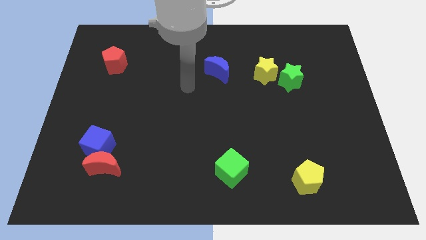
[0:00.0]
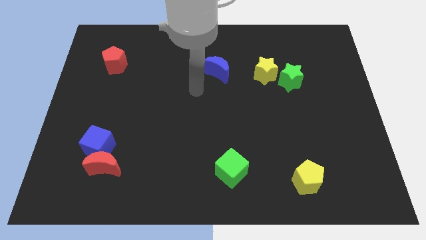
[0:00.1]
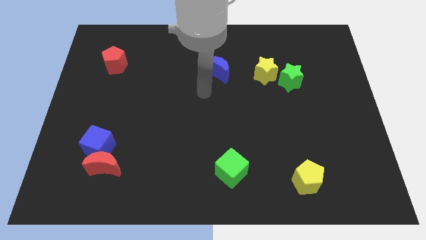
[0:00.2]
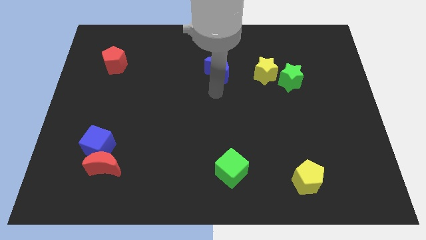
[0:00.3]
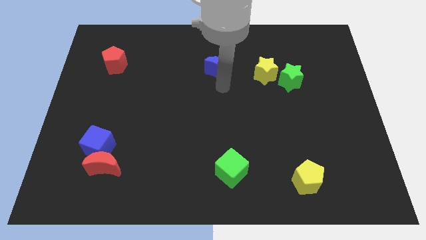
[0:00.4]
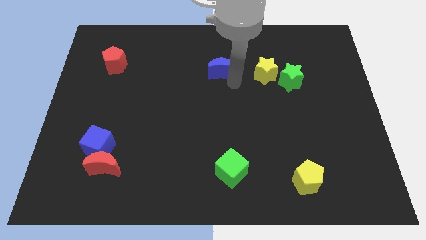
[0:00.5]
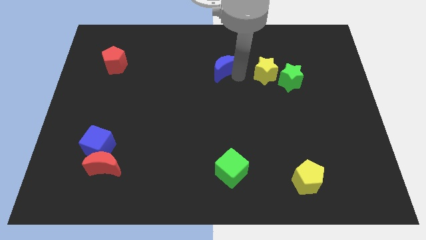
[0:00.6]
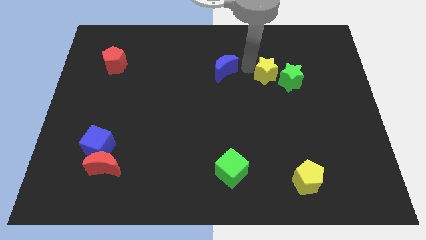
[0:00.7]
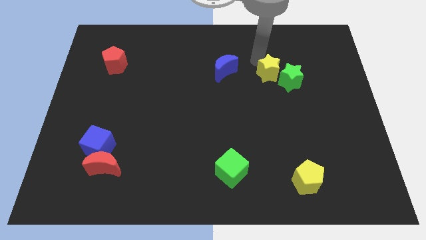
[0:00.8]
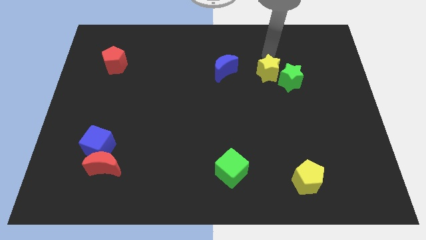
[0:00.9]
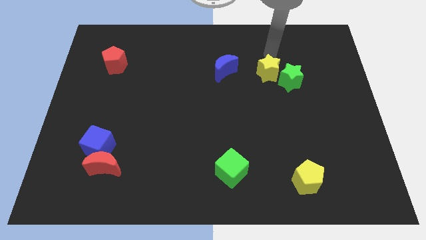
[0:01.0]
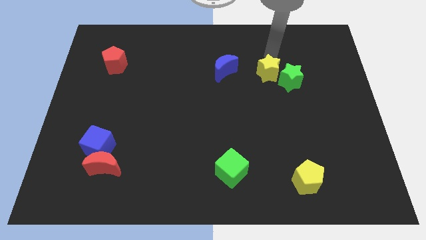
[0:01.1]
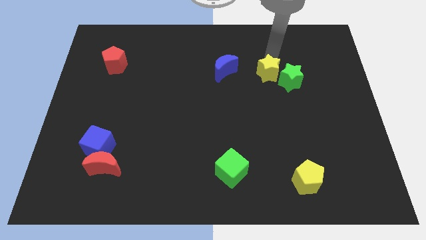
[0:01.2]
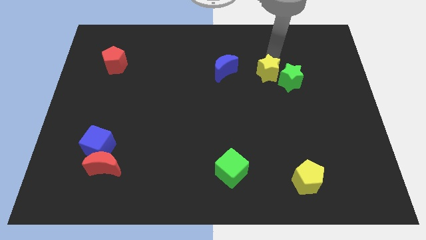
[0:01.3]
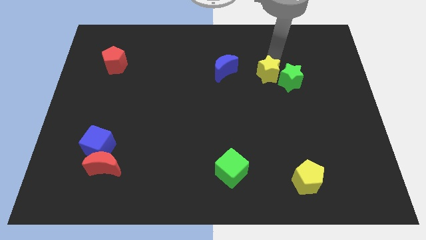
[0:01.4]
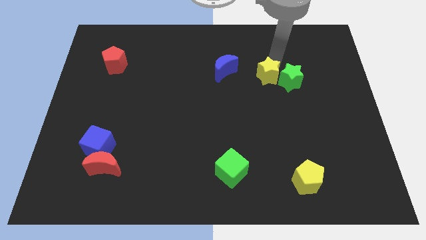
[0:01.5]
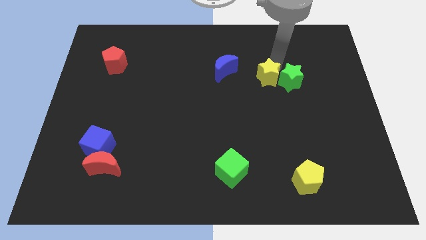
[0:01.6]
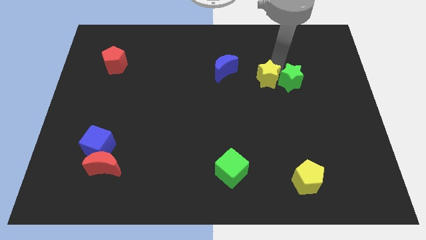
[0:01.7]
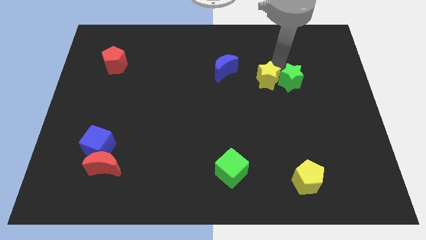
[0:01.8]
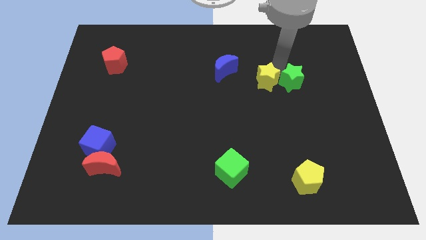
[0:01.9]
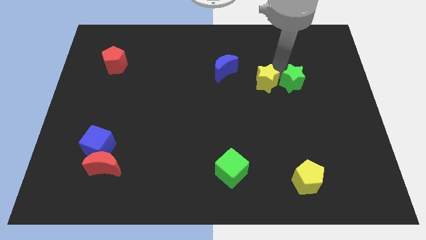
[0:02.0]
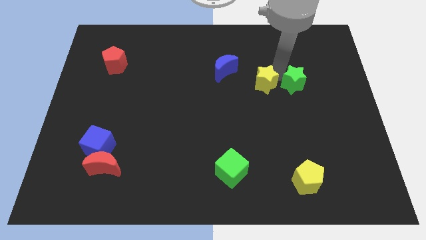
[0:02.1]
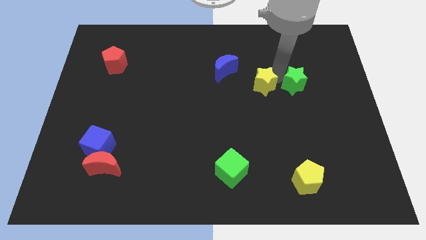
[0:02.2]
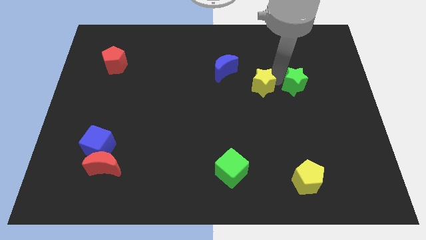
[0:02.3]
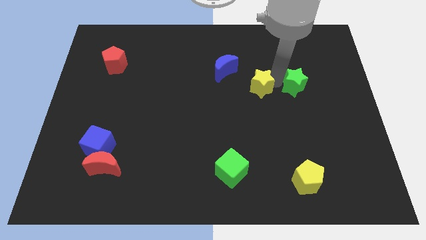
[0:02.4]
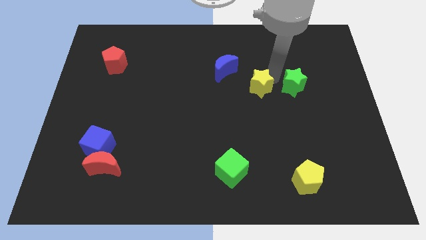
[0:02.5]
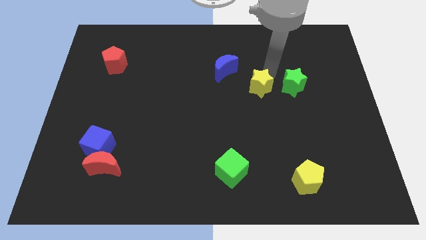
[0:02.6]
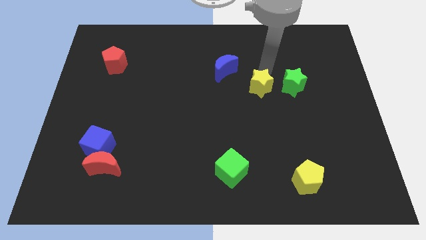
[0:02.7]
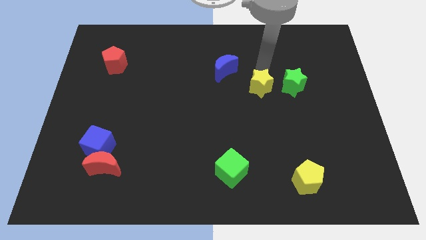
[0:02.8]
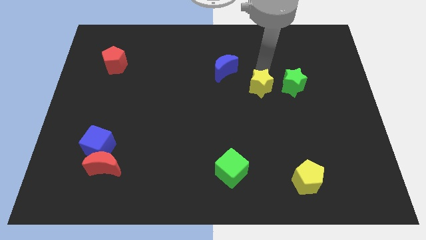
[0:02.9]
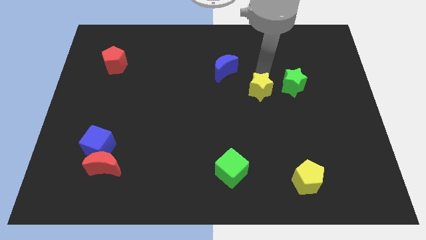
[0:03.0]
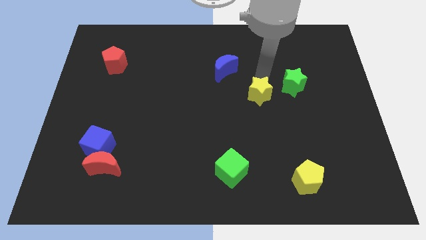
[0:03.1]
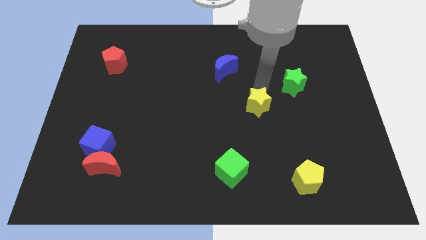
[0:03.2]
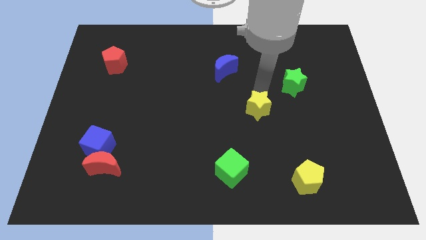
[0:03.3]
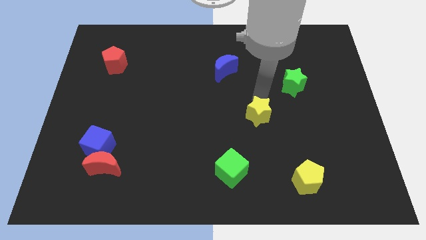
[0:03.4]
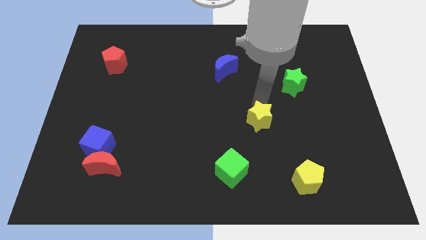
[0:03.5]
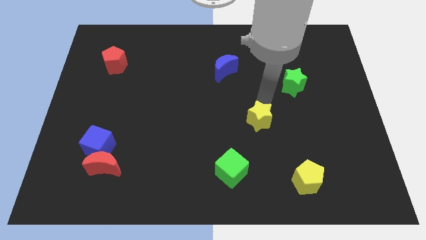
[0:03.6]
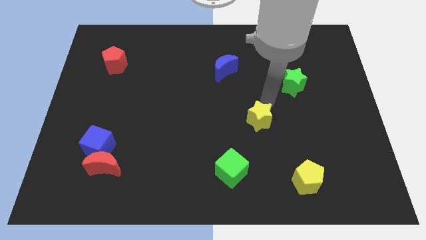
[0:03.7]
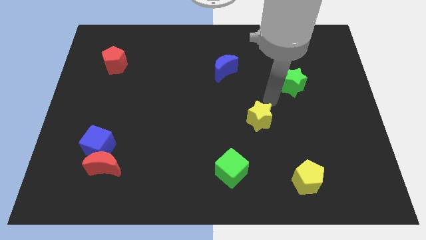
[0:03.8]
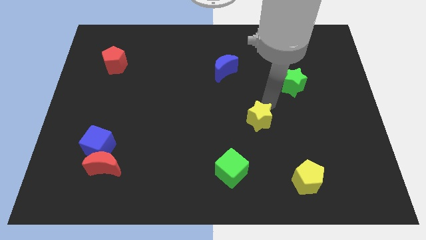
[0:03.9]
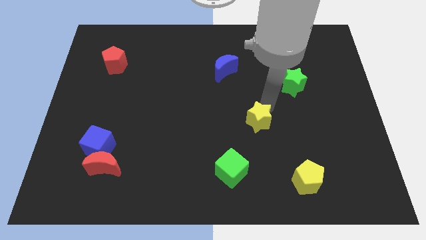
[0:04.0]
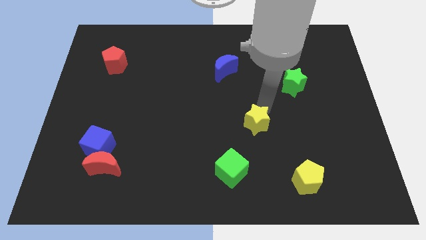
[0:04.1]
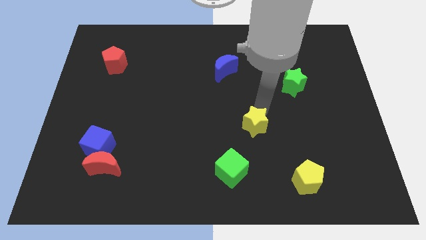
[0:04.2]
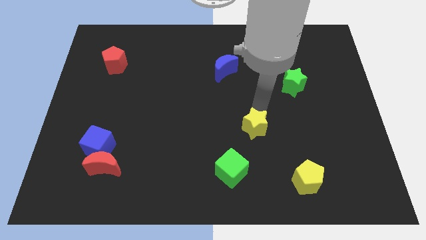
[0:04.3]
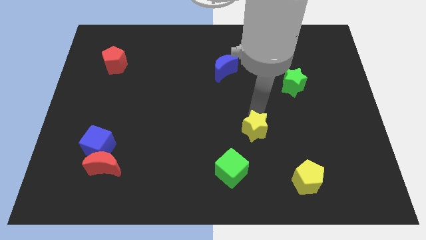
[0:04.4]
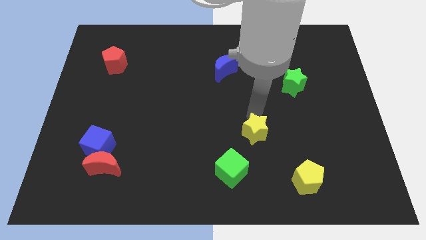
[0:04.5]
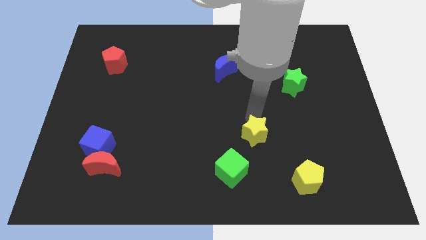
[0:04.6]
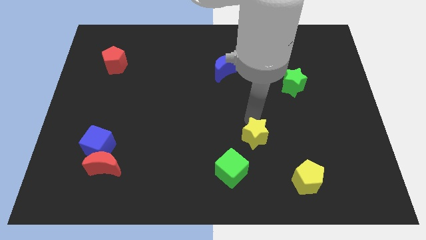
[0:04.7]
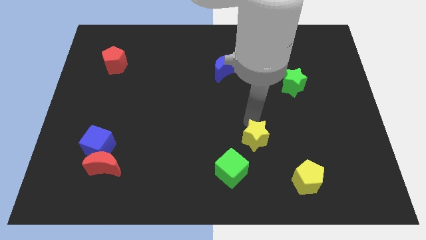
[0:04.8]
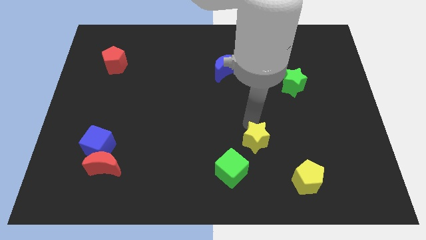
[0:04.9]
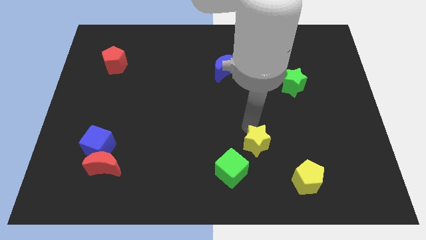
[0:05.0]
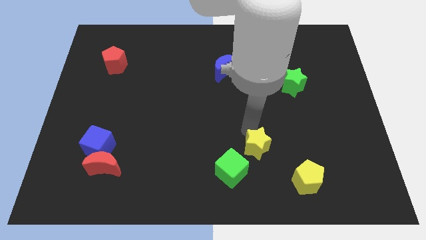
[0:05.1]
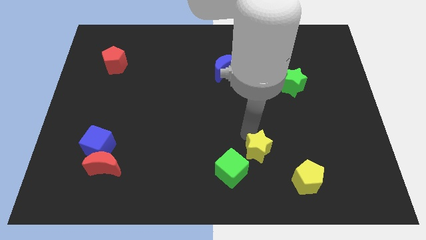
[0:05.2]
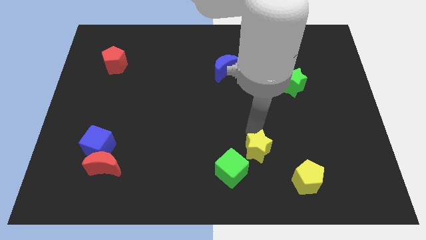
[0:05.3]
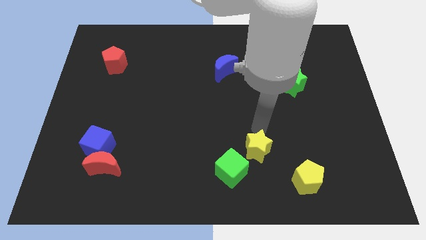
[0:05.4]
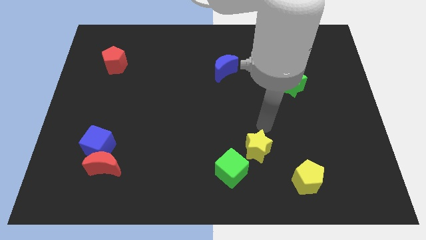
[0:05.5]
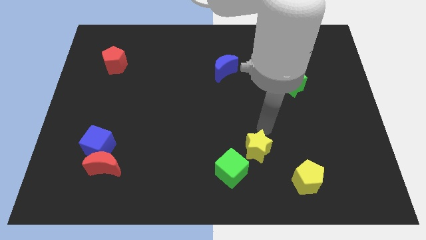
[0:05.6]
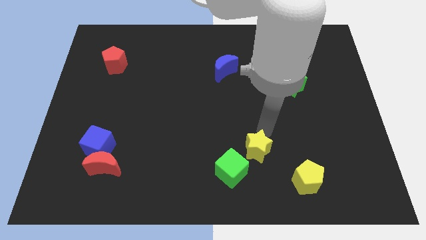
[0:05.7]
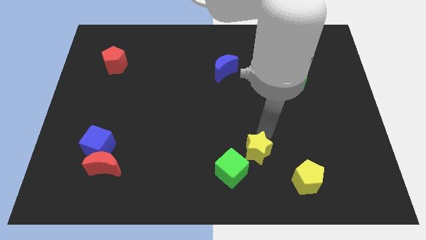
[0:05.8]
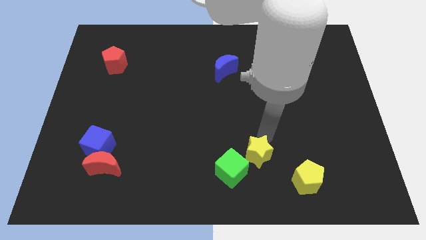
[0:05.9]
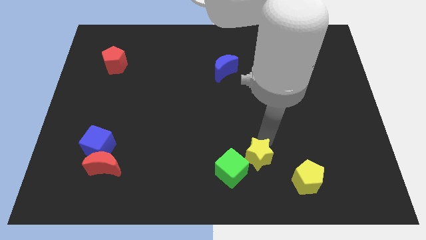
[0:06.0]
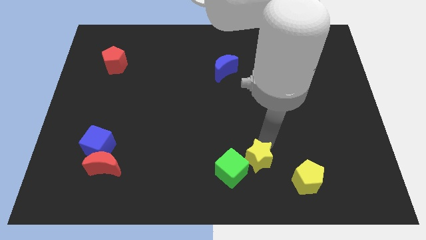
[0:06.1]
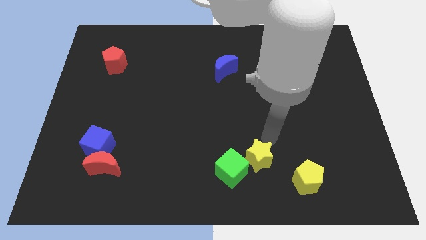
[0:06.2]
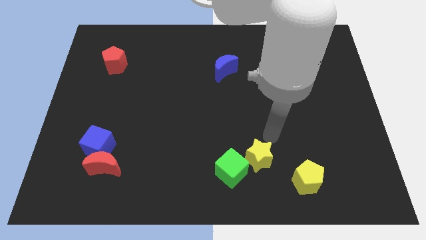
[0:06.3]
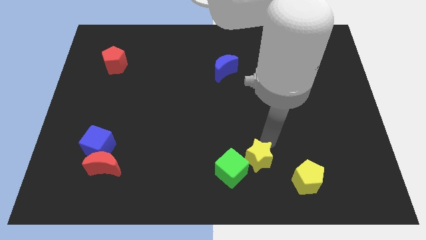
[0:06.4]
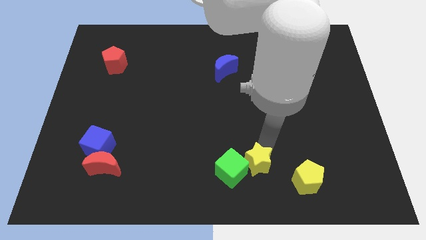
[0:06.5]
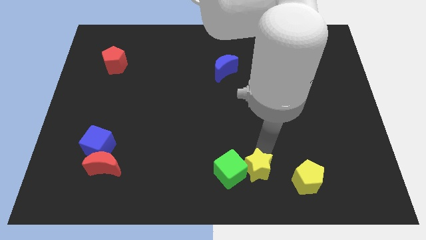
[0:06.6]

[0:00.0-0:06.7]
put the yellow star to the bottom

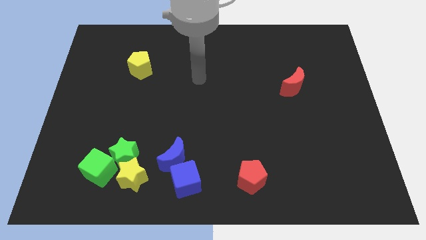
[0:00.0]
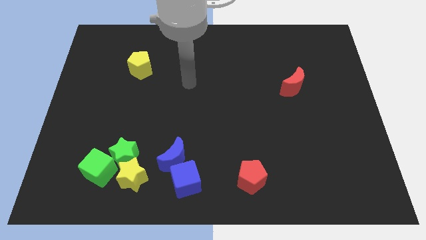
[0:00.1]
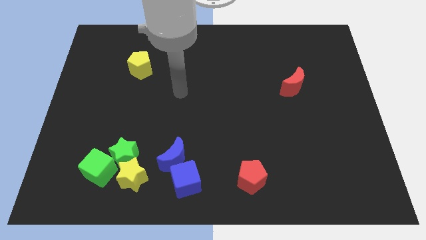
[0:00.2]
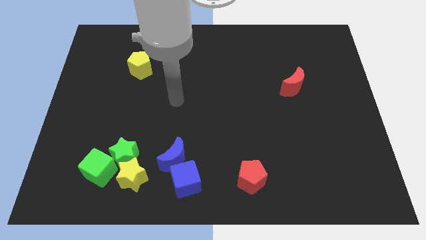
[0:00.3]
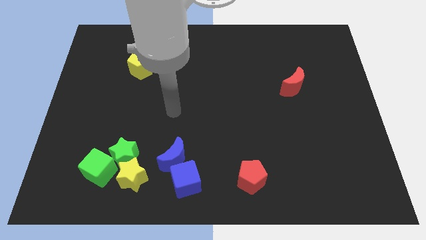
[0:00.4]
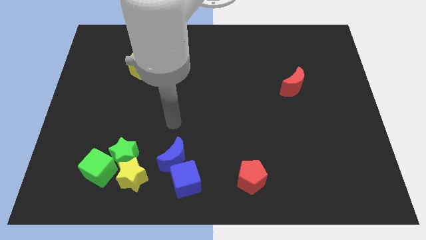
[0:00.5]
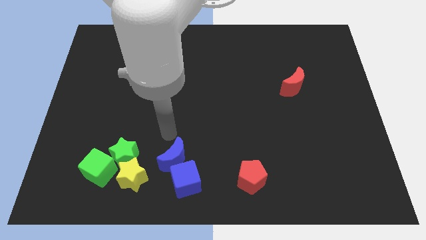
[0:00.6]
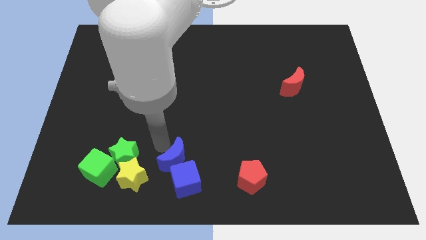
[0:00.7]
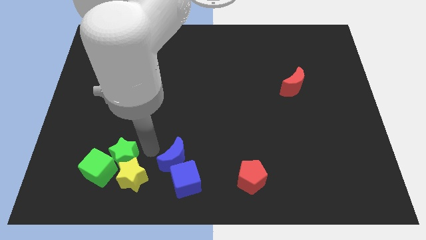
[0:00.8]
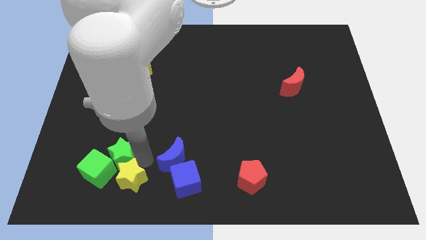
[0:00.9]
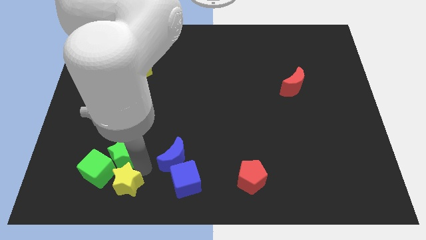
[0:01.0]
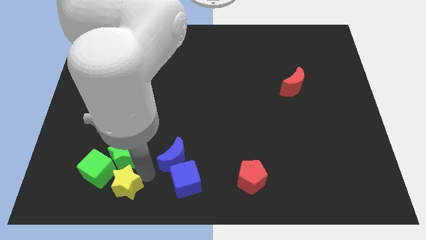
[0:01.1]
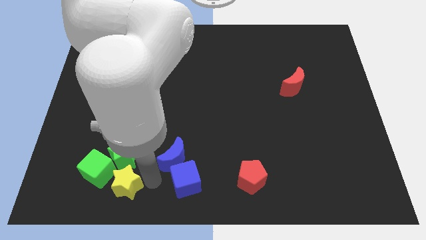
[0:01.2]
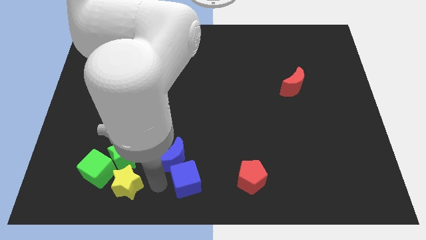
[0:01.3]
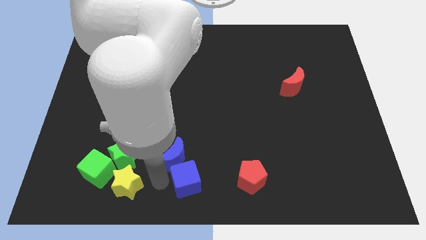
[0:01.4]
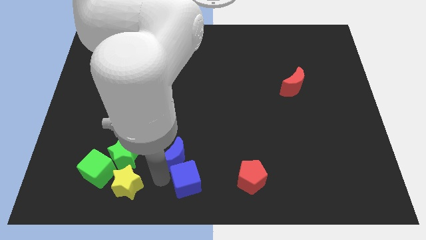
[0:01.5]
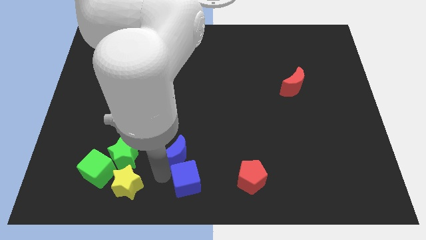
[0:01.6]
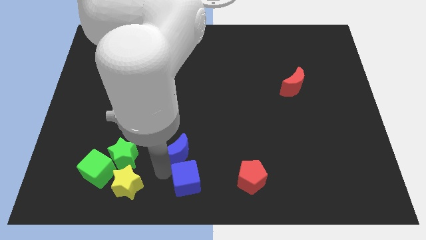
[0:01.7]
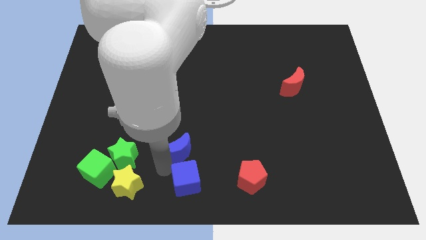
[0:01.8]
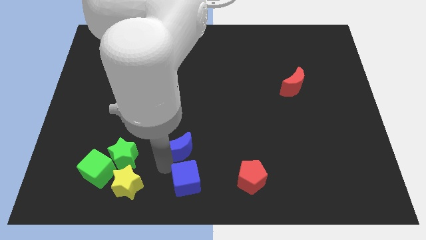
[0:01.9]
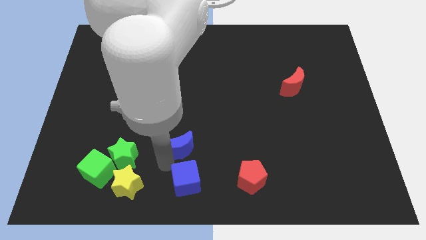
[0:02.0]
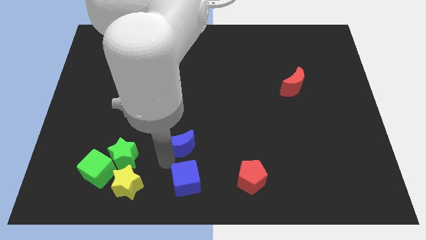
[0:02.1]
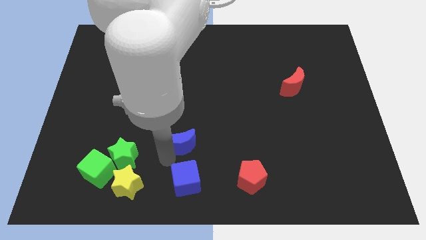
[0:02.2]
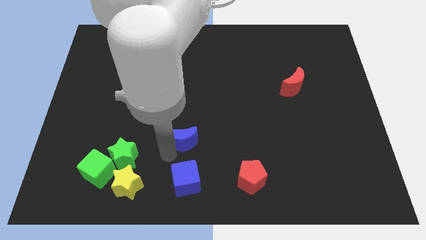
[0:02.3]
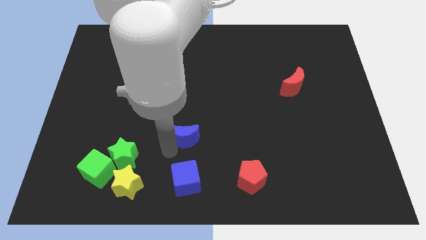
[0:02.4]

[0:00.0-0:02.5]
push the blue moon to the center
